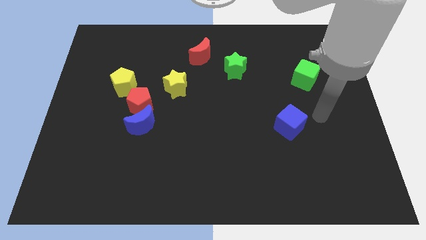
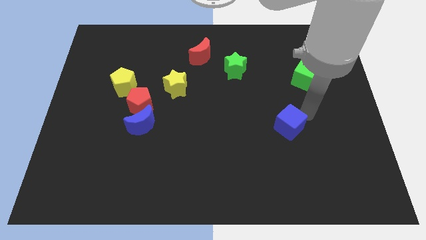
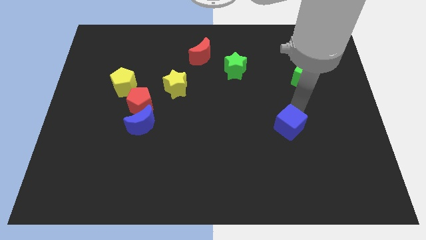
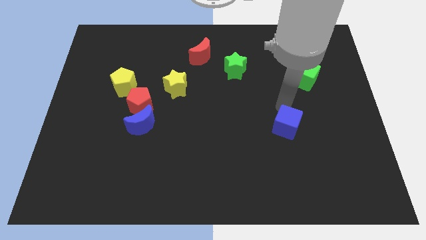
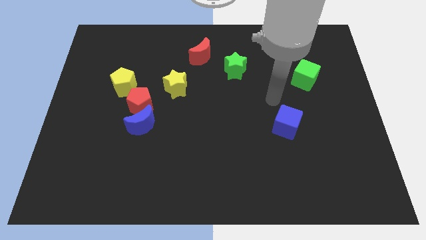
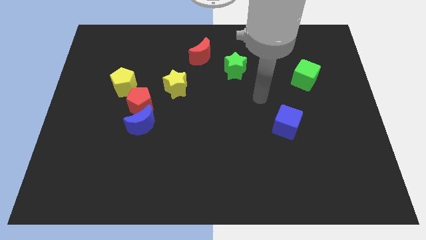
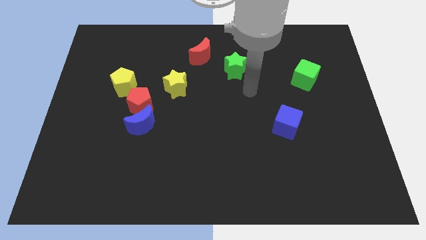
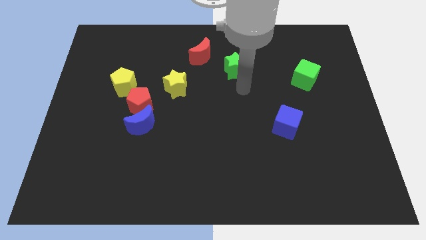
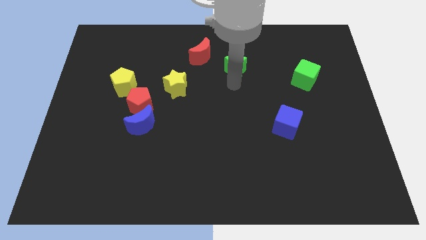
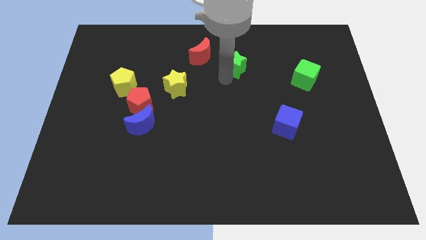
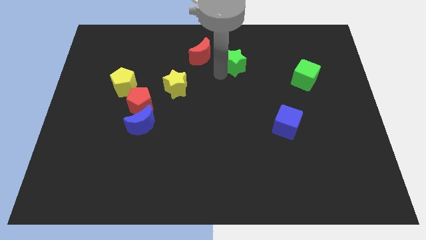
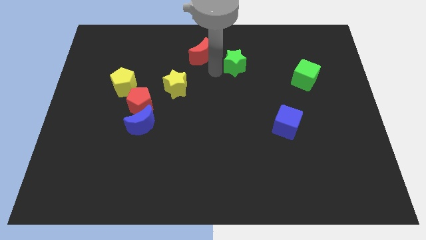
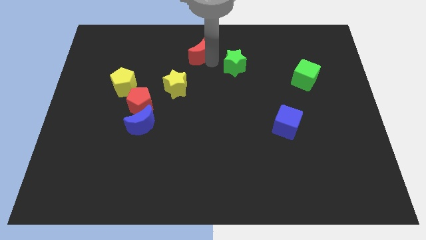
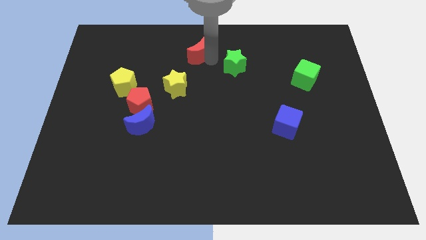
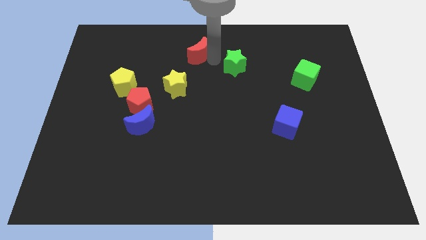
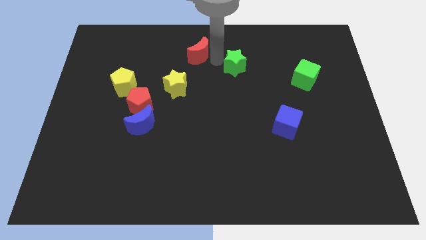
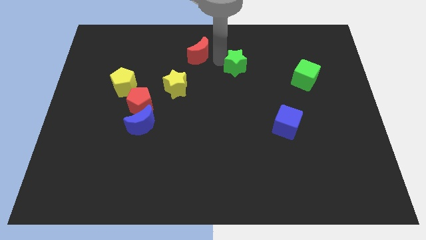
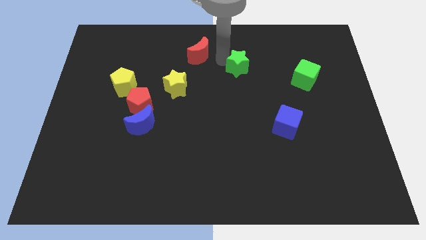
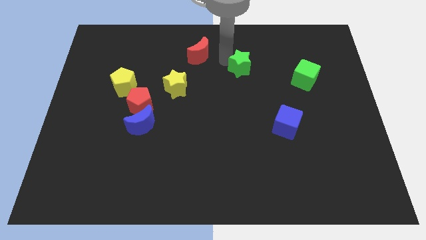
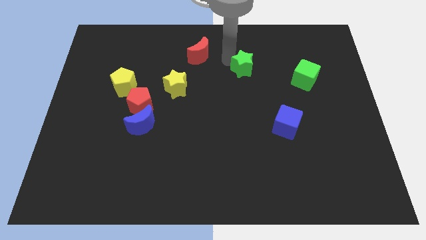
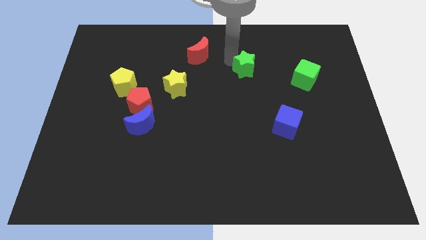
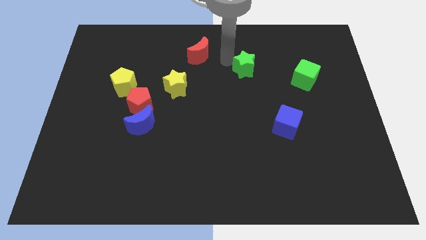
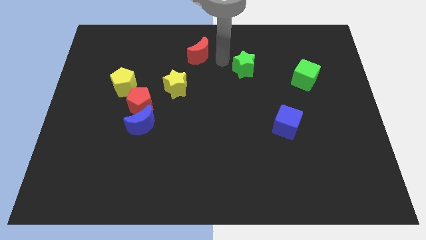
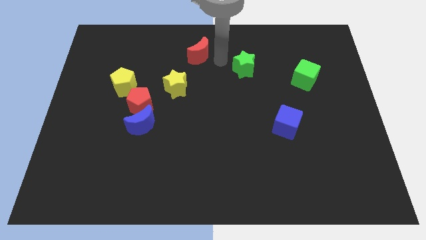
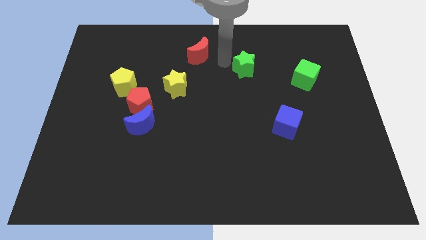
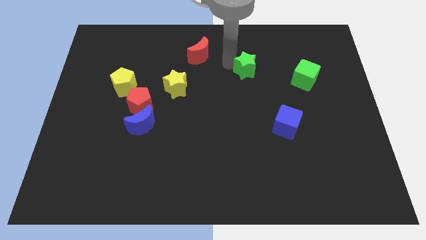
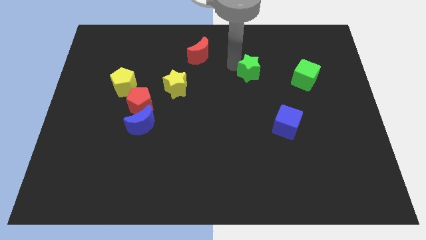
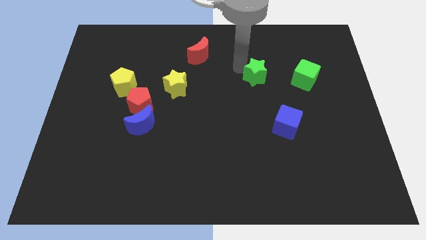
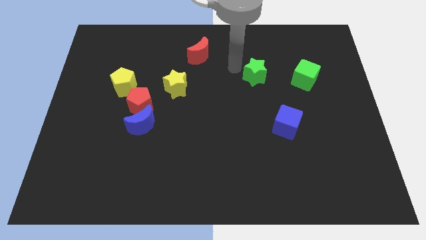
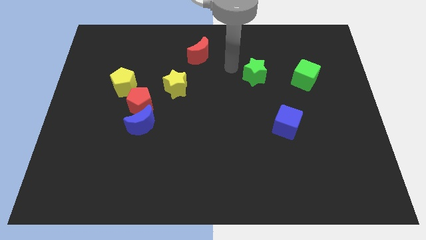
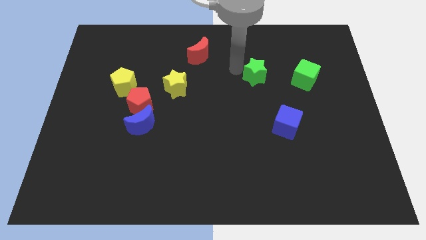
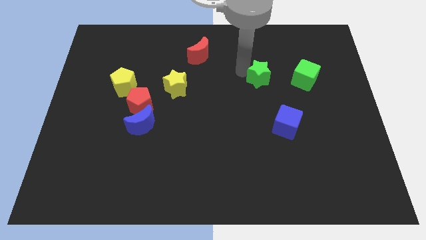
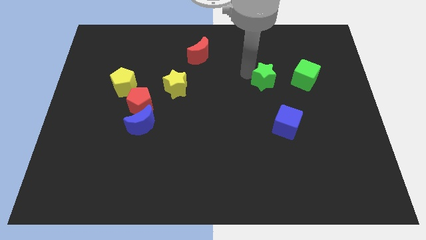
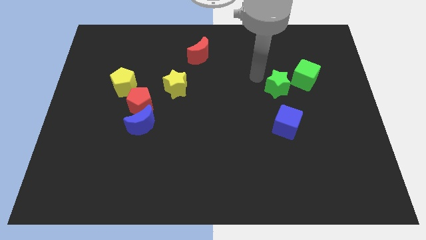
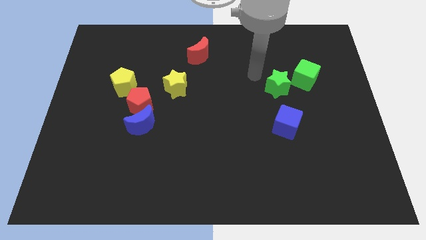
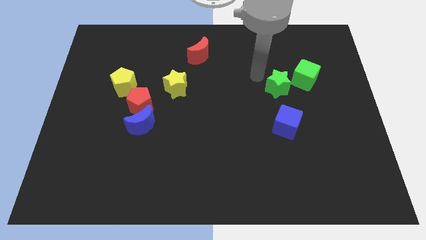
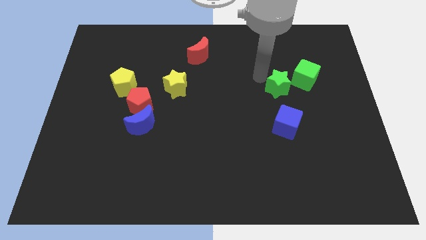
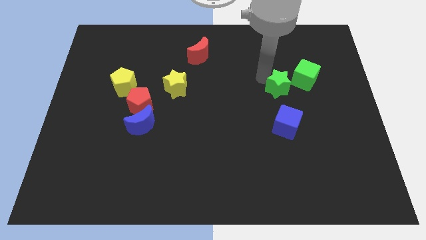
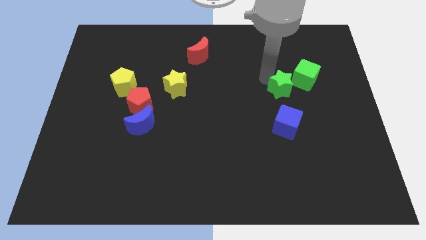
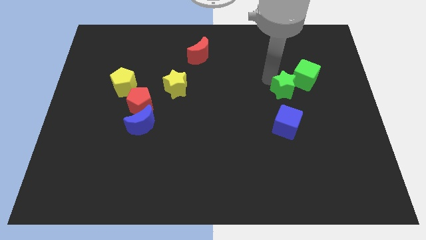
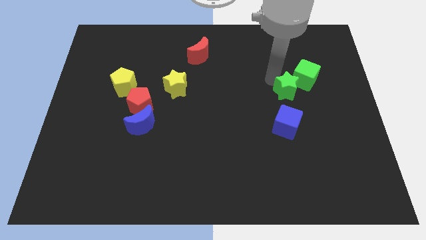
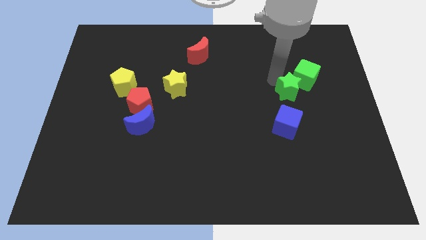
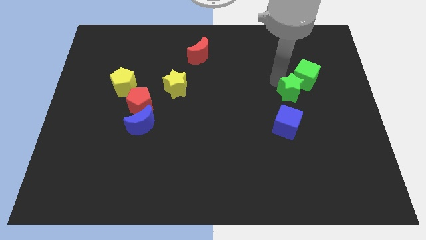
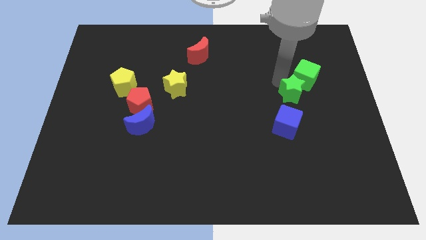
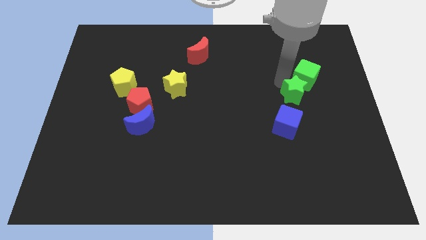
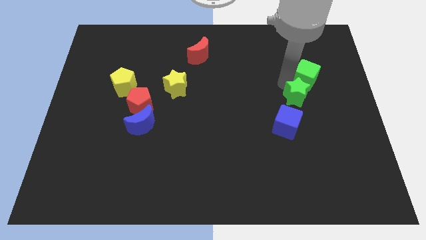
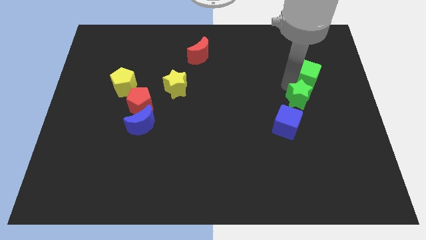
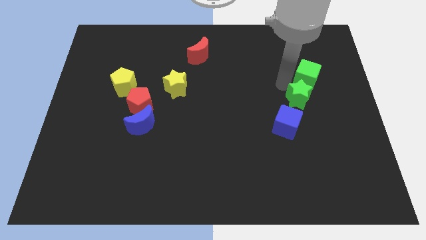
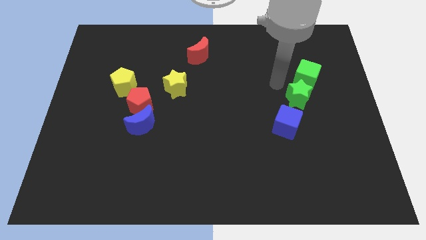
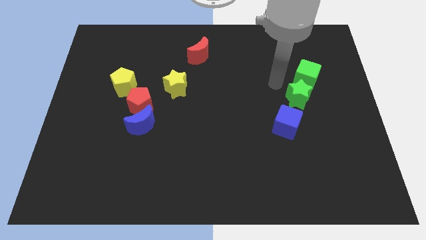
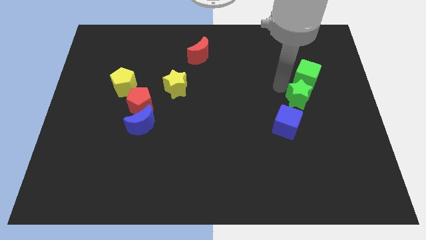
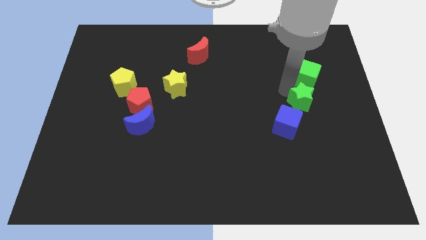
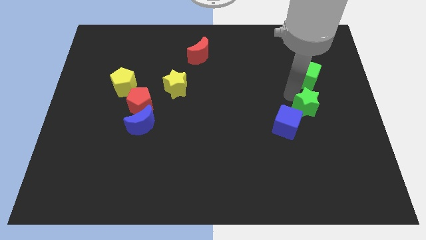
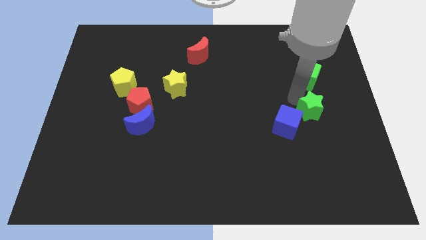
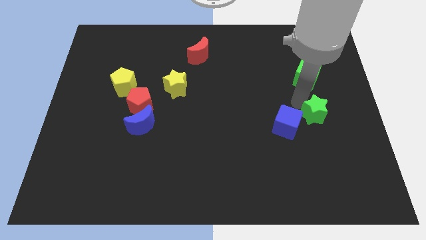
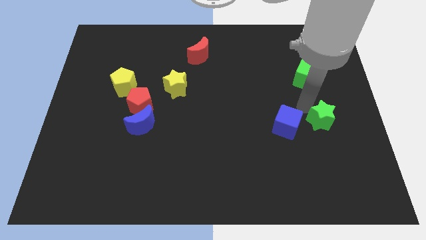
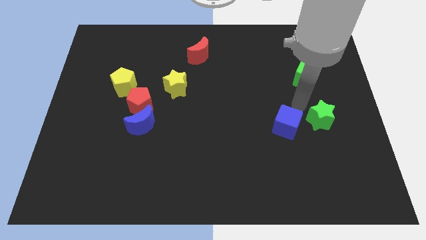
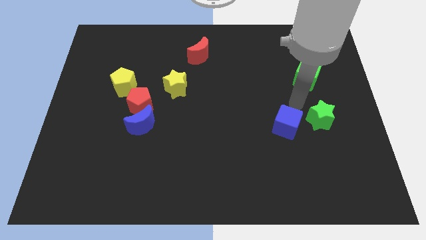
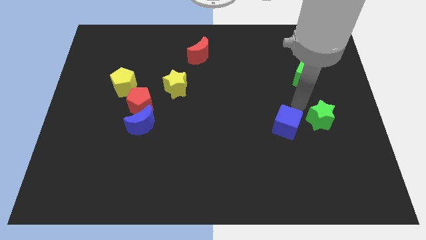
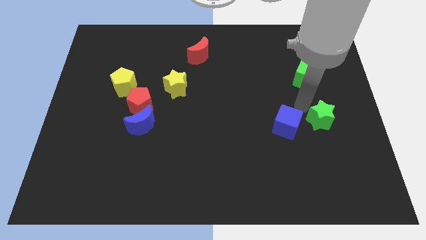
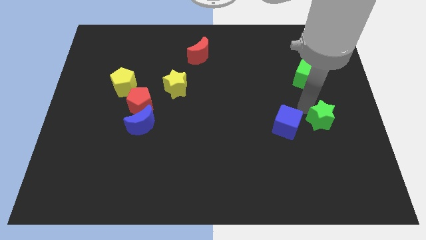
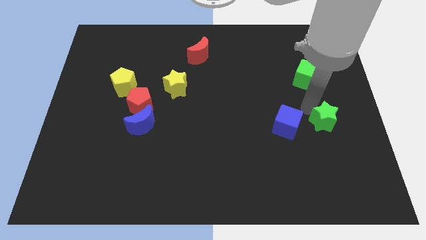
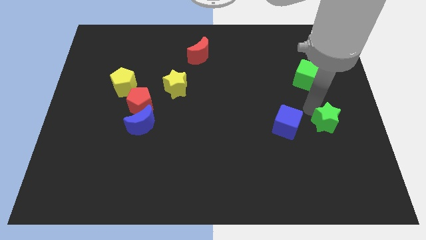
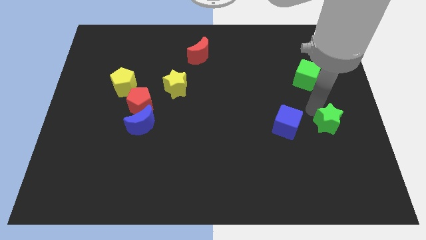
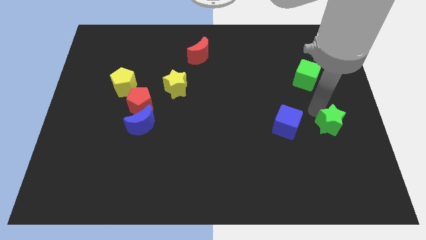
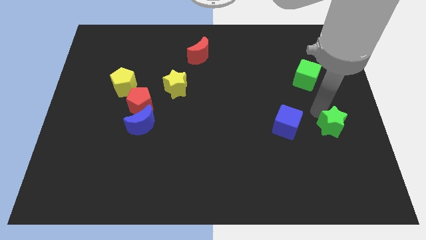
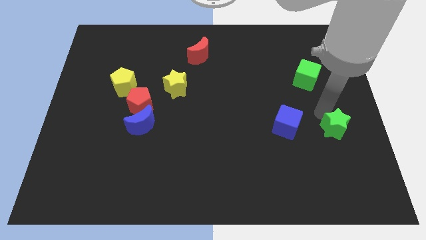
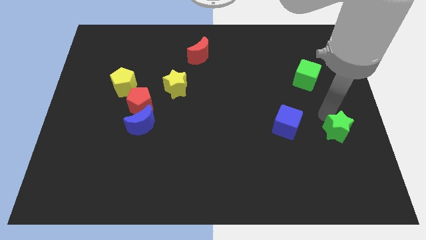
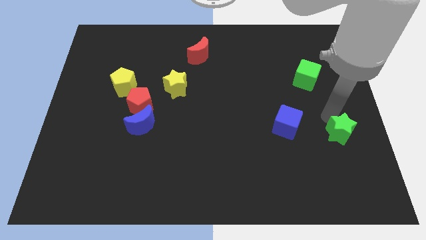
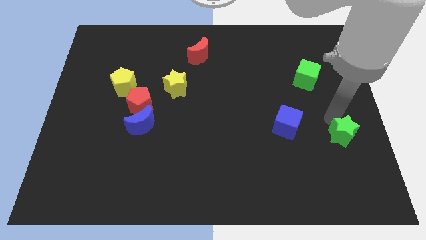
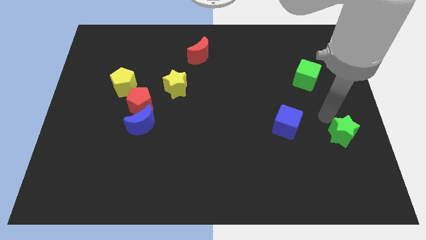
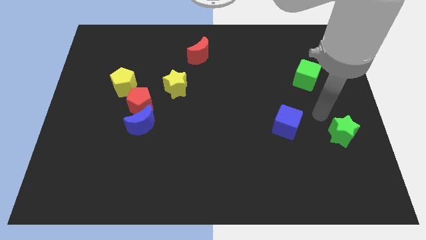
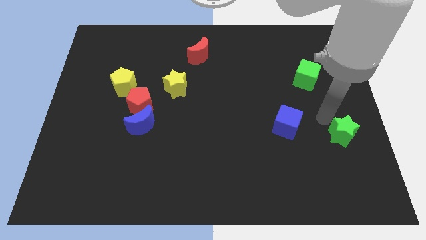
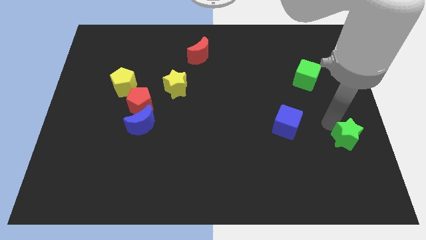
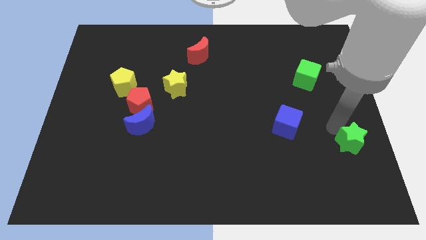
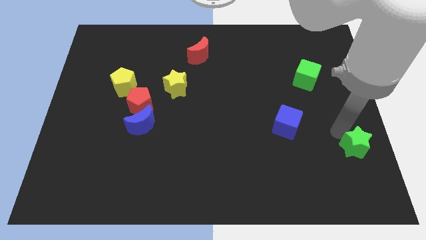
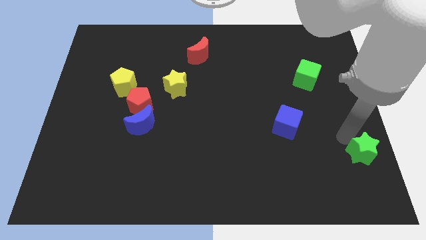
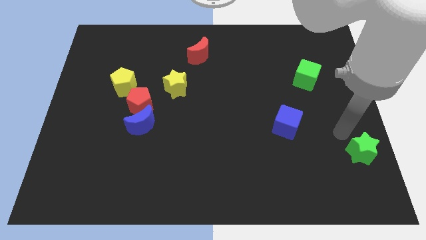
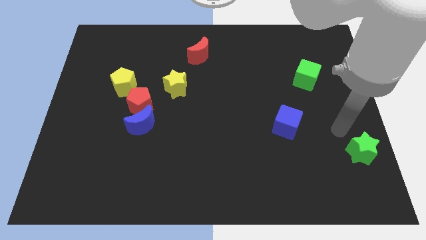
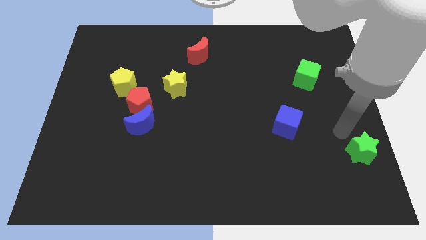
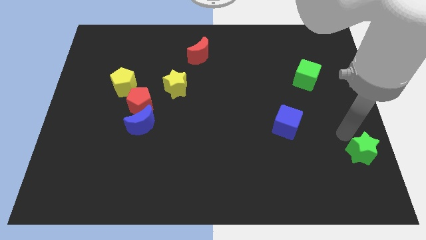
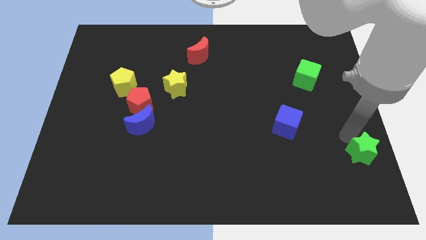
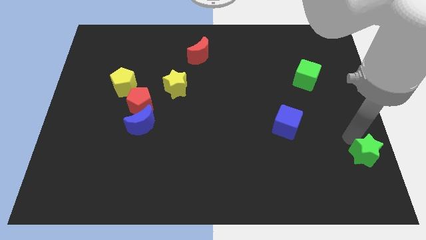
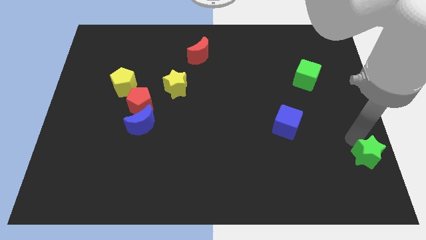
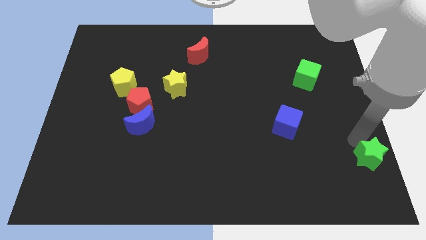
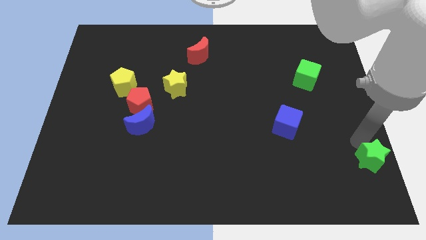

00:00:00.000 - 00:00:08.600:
slide the green star to the bottom right
